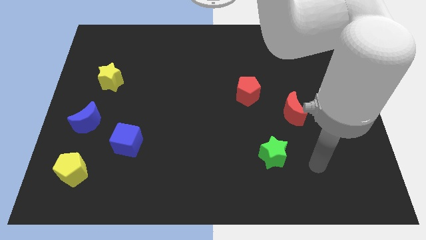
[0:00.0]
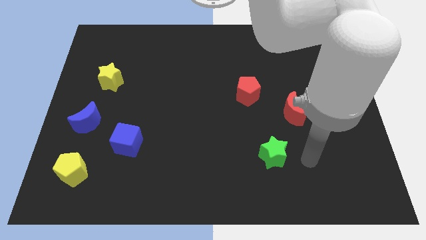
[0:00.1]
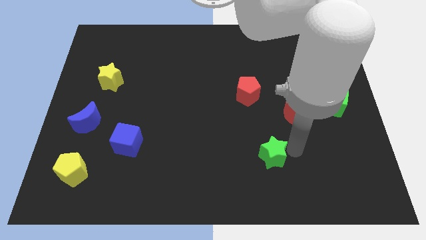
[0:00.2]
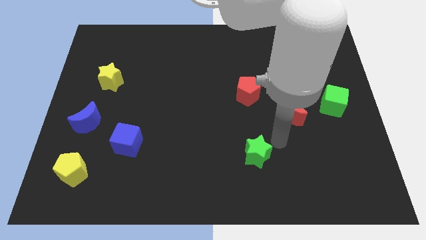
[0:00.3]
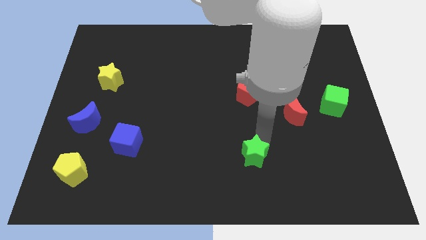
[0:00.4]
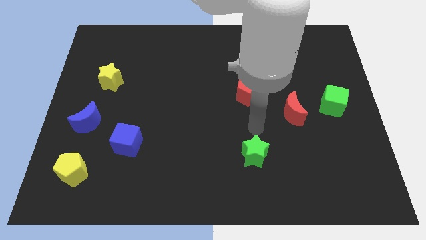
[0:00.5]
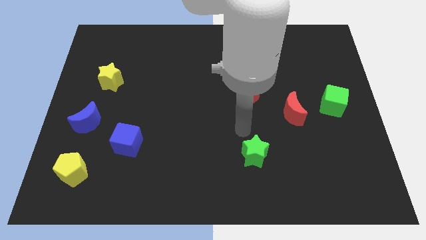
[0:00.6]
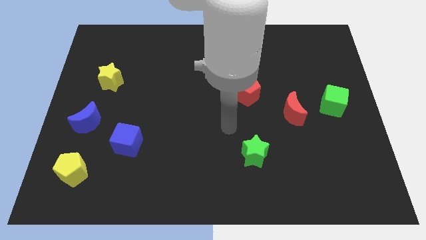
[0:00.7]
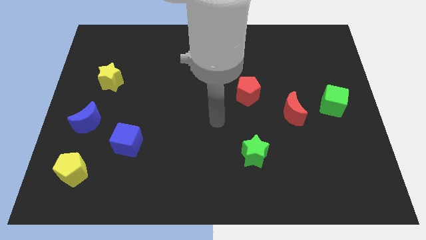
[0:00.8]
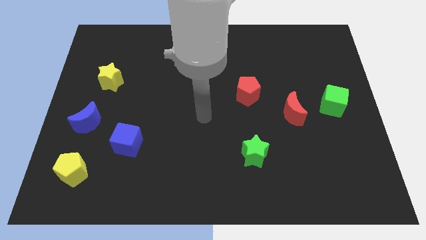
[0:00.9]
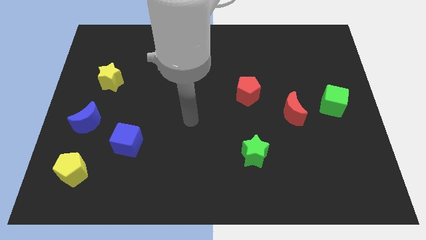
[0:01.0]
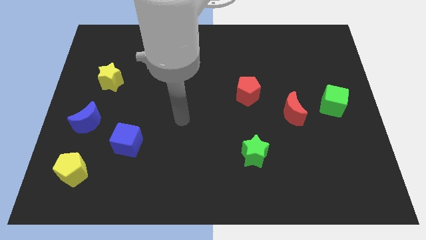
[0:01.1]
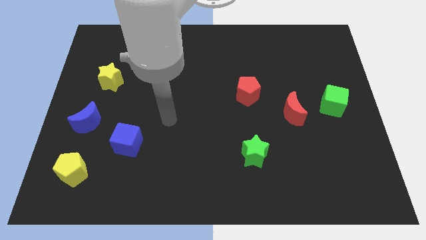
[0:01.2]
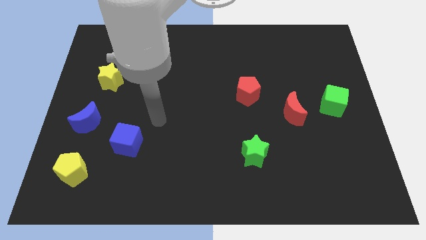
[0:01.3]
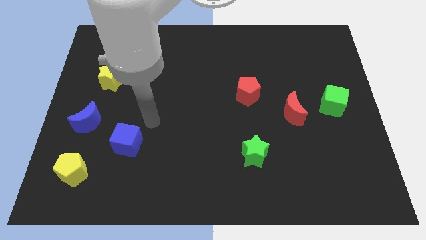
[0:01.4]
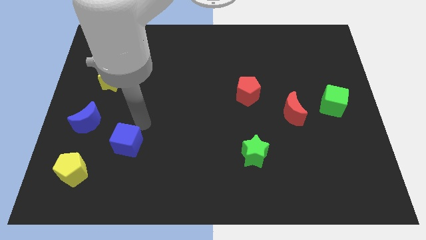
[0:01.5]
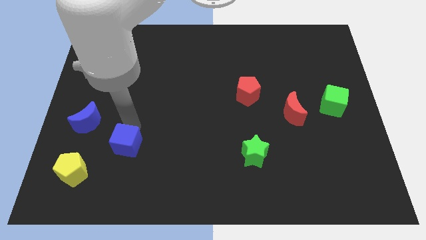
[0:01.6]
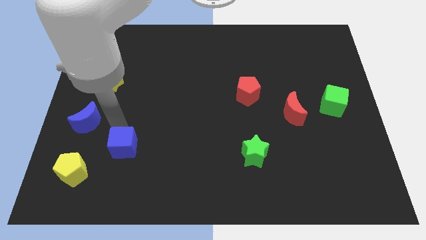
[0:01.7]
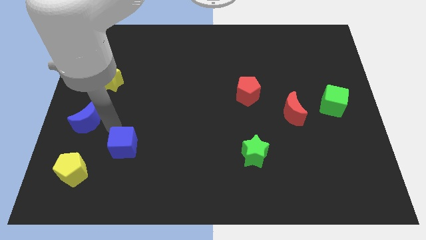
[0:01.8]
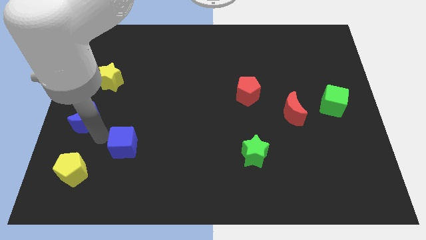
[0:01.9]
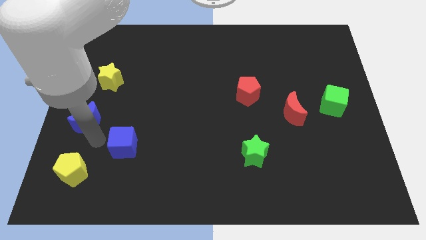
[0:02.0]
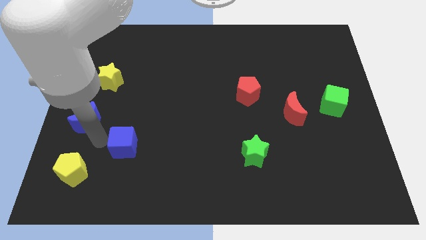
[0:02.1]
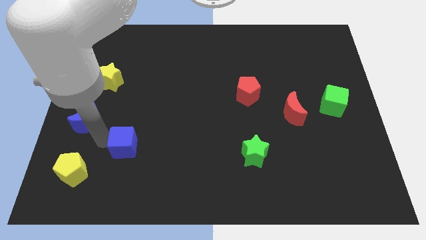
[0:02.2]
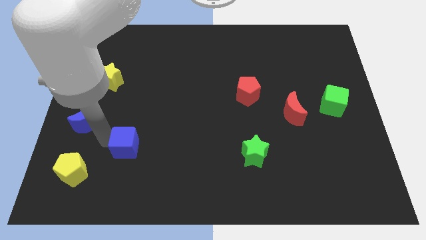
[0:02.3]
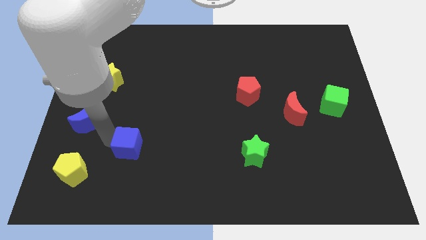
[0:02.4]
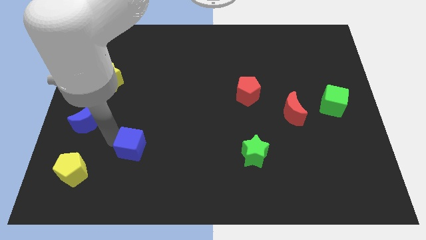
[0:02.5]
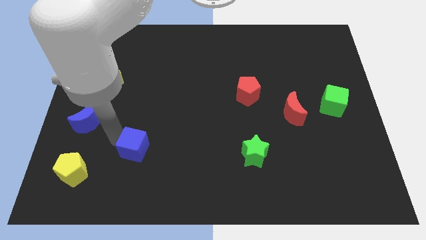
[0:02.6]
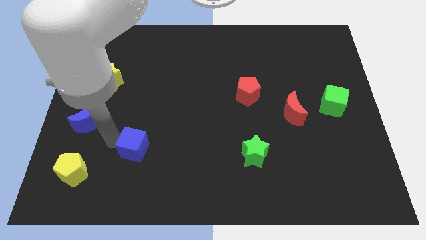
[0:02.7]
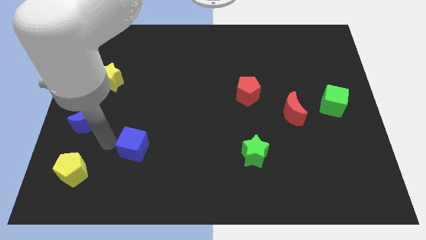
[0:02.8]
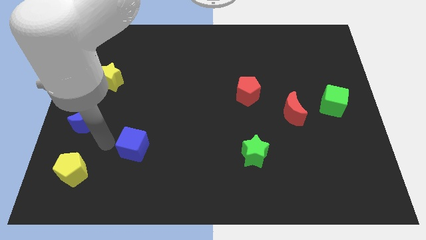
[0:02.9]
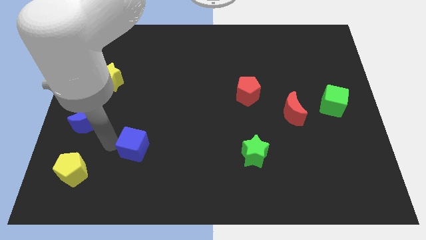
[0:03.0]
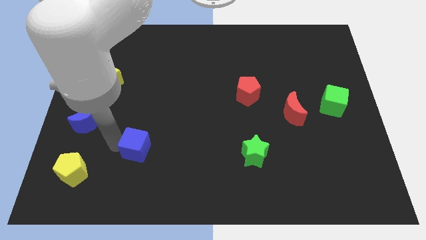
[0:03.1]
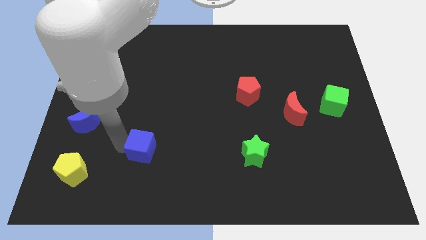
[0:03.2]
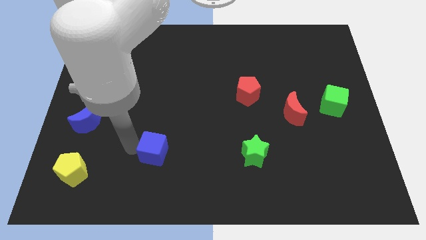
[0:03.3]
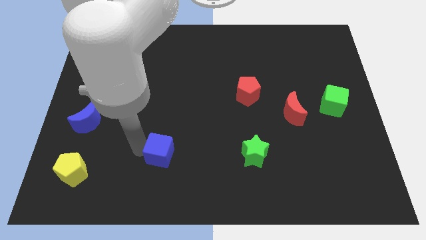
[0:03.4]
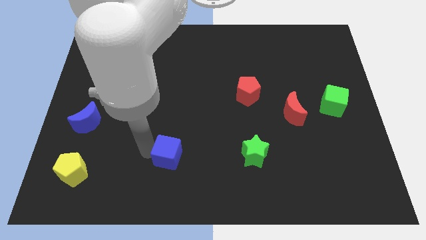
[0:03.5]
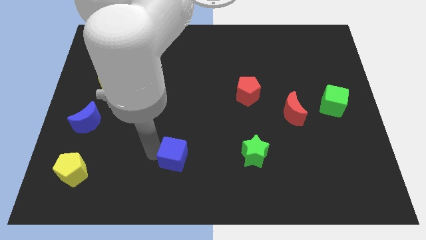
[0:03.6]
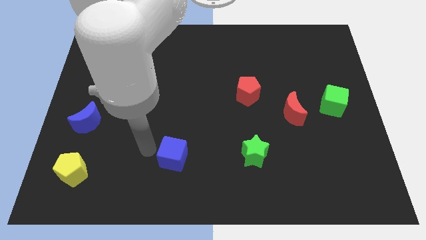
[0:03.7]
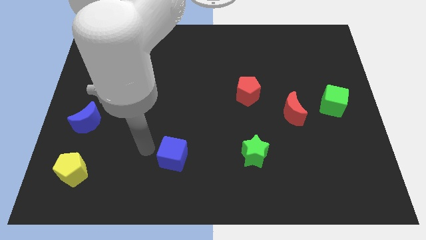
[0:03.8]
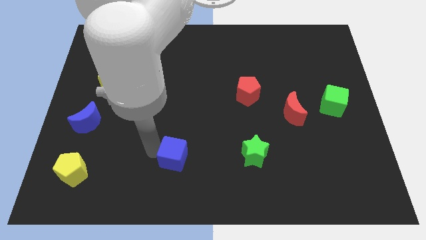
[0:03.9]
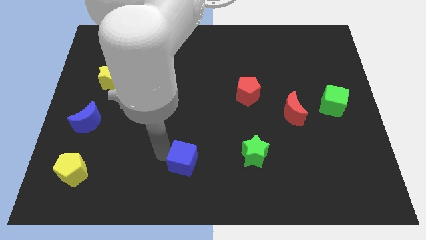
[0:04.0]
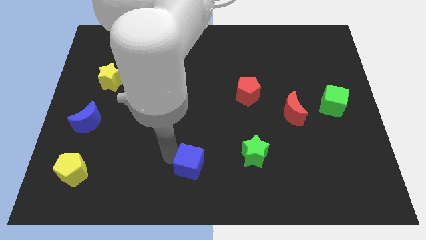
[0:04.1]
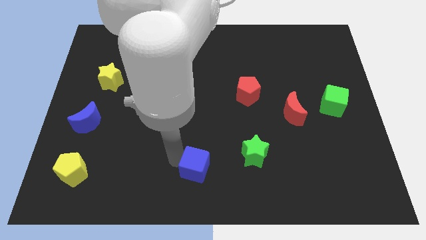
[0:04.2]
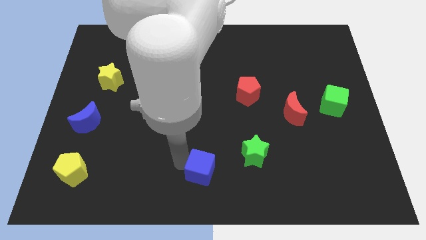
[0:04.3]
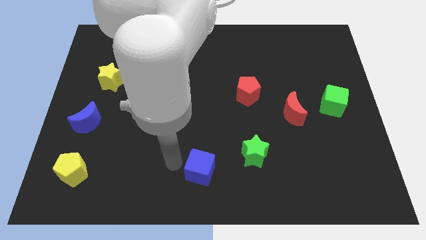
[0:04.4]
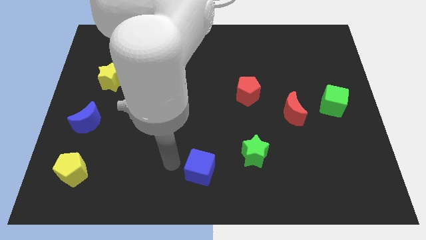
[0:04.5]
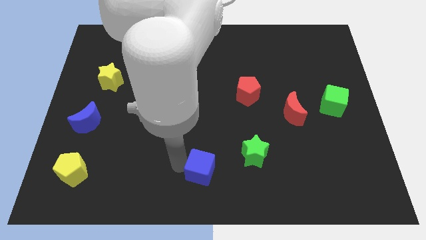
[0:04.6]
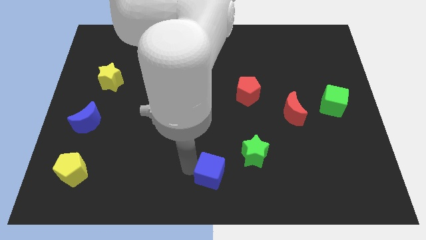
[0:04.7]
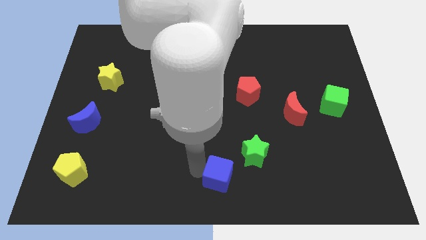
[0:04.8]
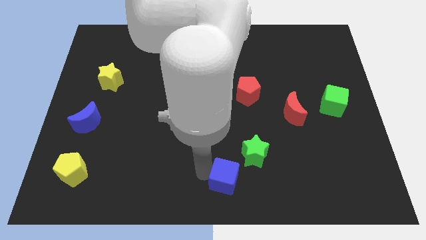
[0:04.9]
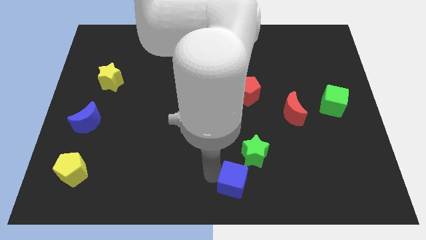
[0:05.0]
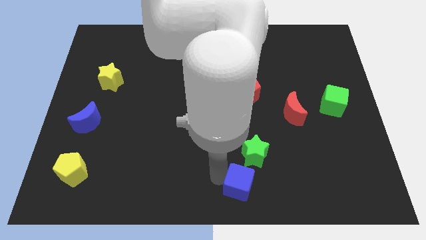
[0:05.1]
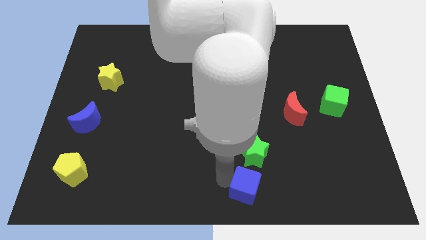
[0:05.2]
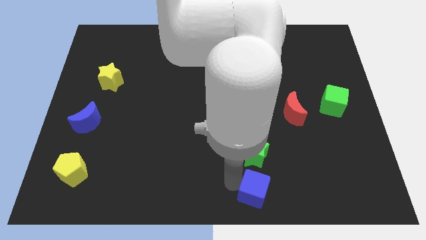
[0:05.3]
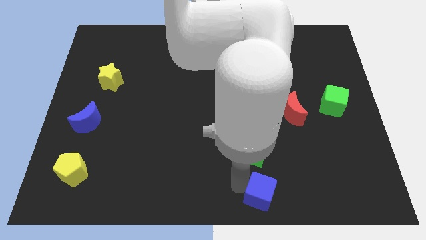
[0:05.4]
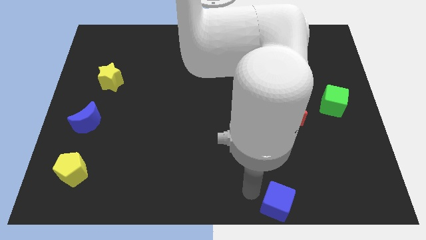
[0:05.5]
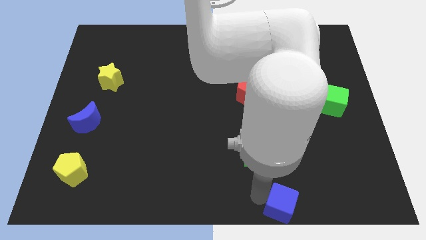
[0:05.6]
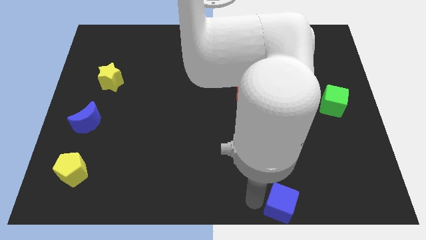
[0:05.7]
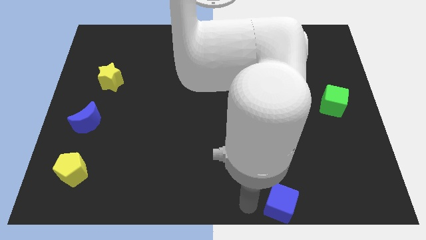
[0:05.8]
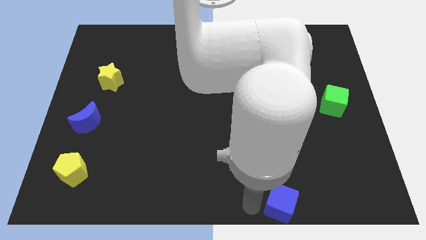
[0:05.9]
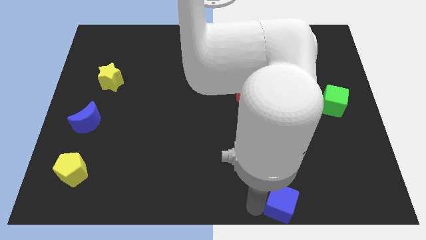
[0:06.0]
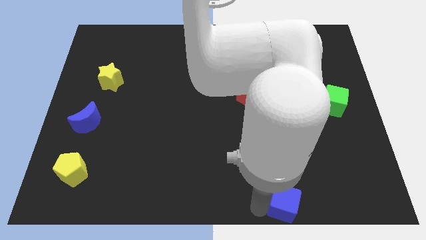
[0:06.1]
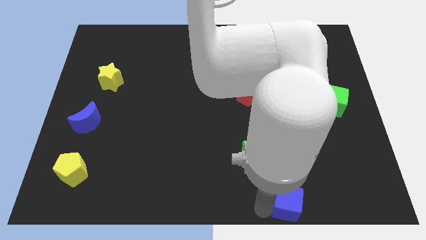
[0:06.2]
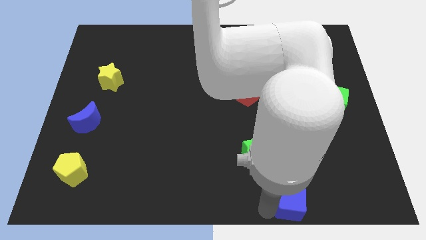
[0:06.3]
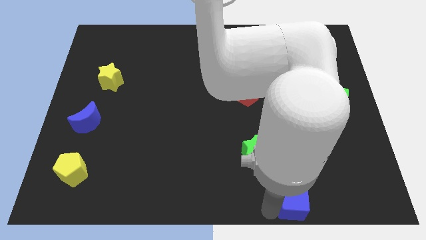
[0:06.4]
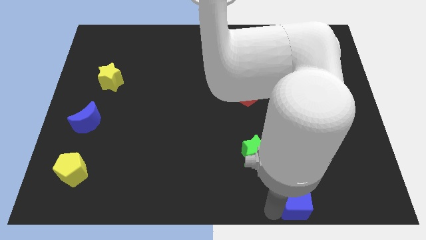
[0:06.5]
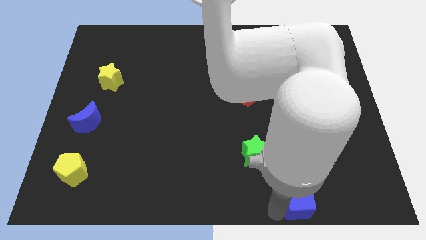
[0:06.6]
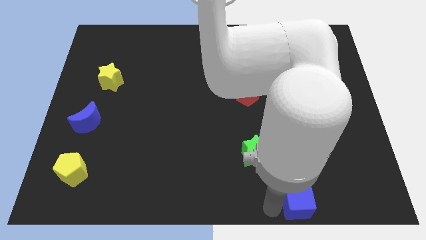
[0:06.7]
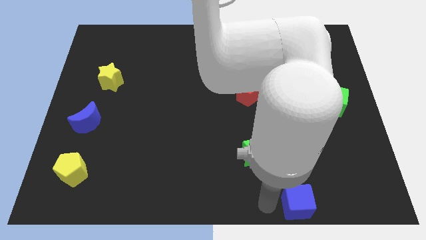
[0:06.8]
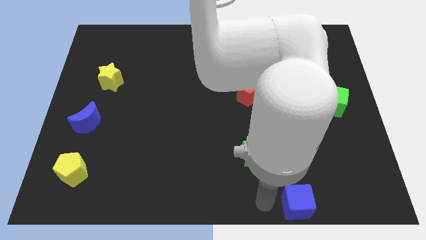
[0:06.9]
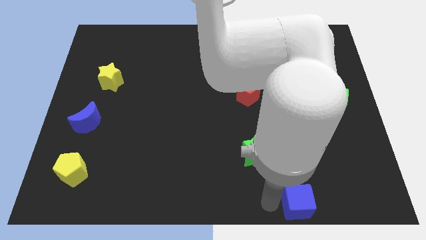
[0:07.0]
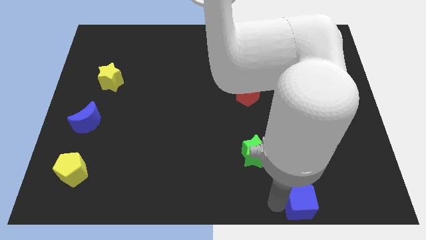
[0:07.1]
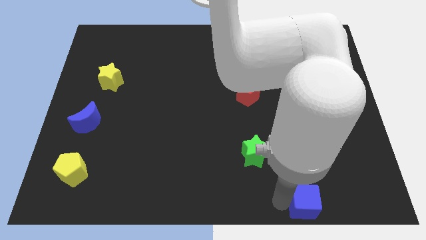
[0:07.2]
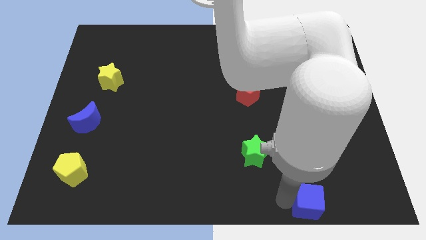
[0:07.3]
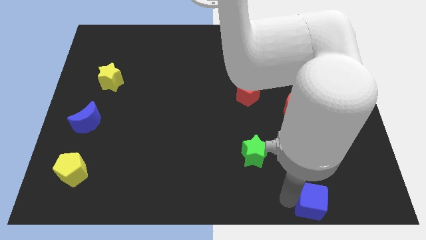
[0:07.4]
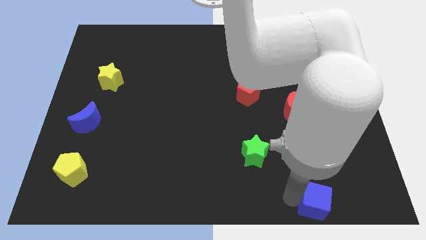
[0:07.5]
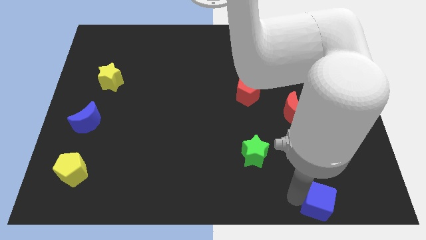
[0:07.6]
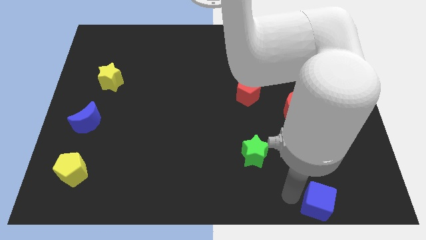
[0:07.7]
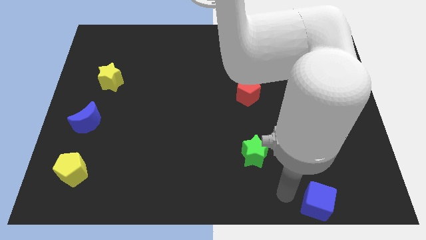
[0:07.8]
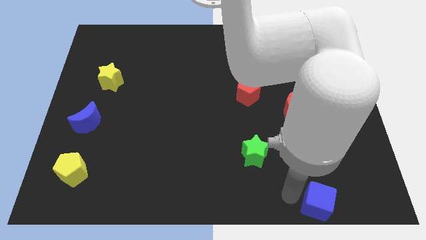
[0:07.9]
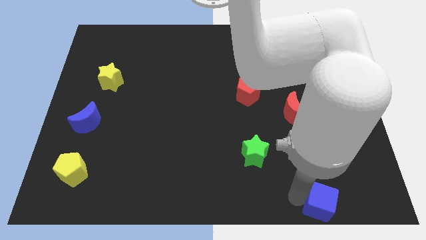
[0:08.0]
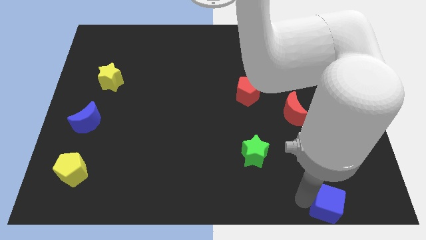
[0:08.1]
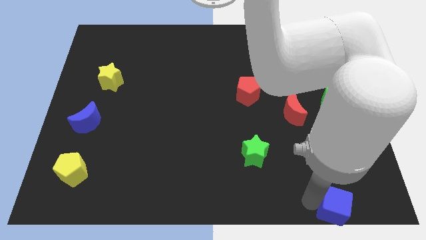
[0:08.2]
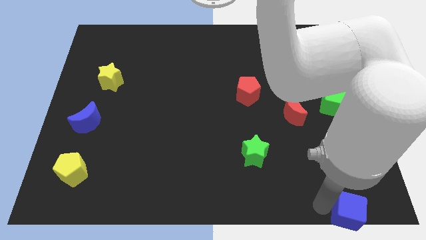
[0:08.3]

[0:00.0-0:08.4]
push the blue cube to the bottom right of the board
